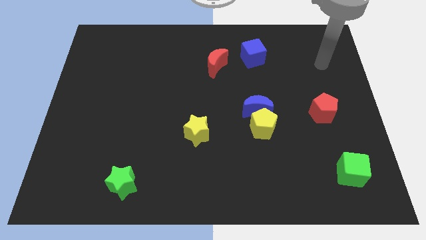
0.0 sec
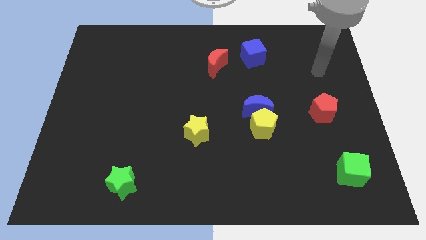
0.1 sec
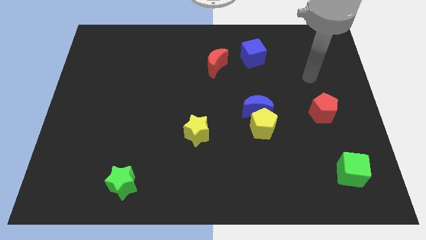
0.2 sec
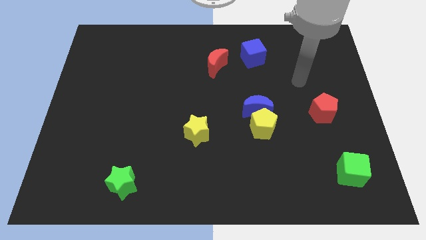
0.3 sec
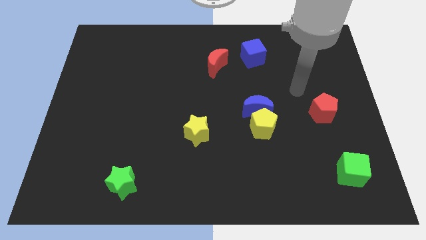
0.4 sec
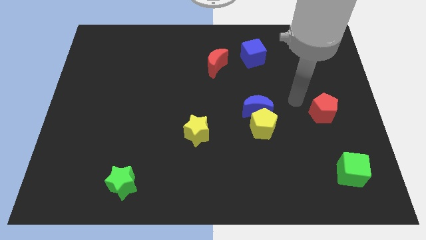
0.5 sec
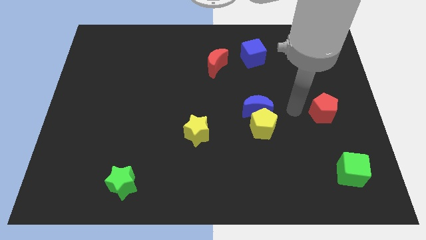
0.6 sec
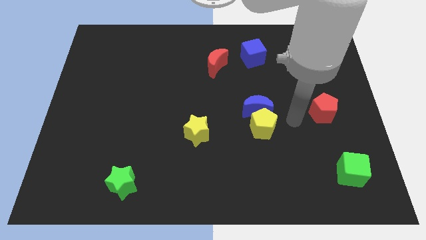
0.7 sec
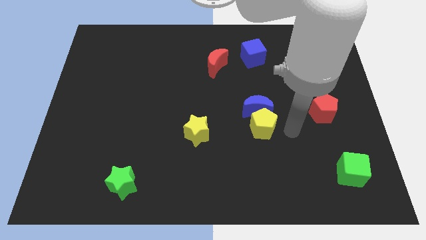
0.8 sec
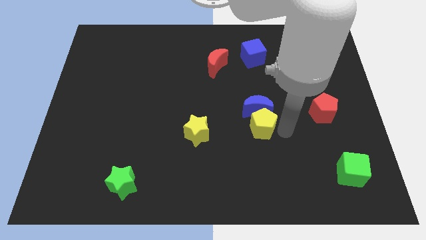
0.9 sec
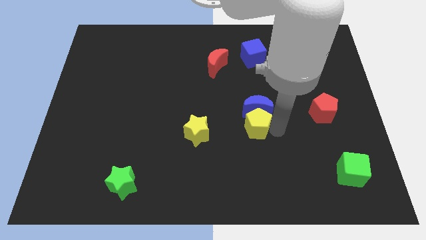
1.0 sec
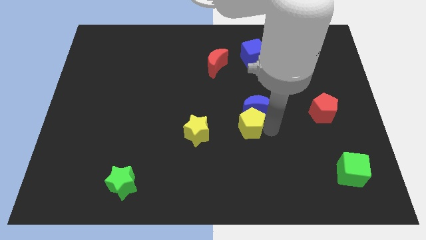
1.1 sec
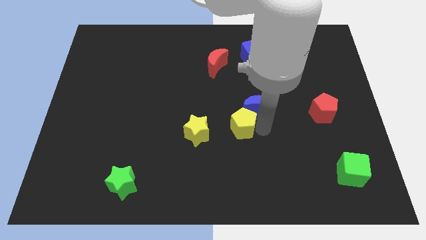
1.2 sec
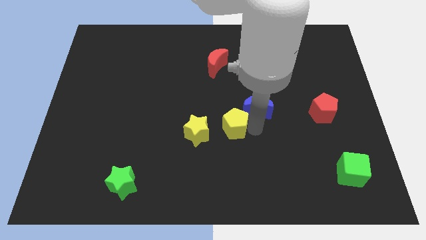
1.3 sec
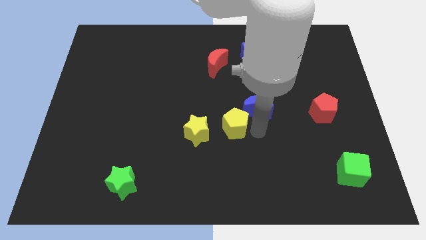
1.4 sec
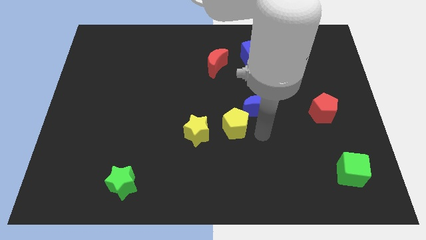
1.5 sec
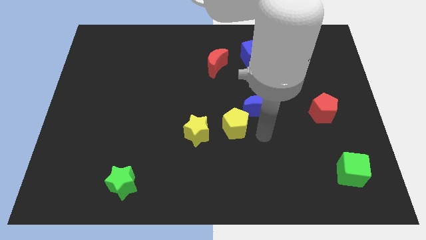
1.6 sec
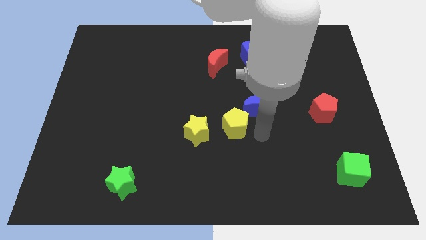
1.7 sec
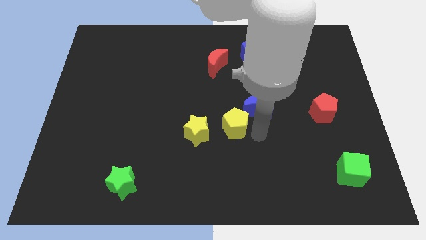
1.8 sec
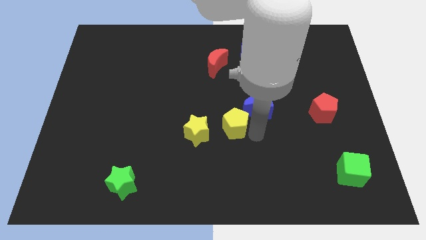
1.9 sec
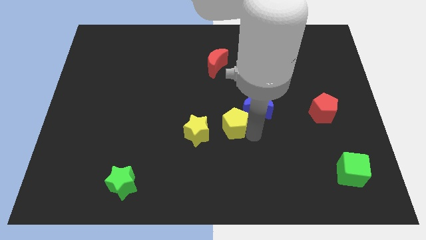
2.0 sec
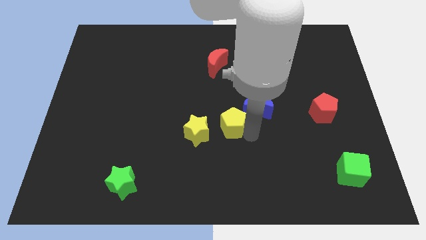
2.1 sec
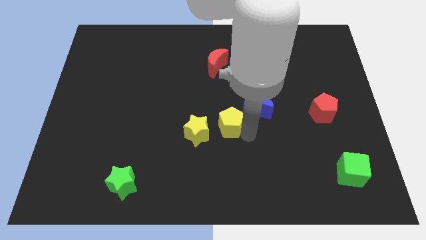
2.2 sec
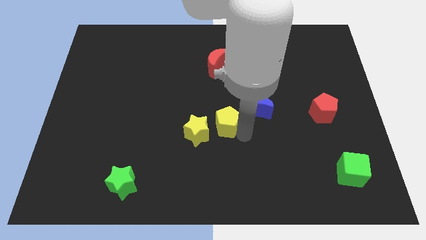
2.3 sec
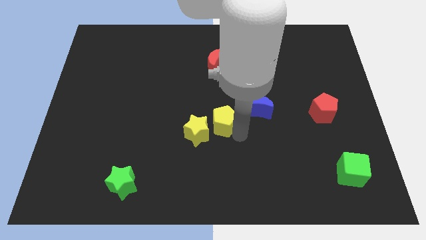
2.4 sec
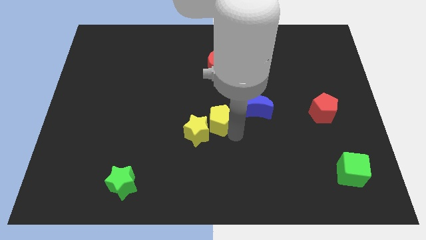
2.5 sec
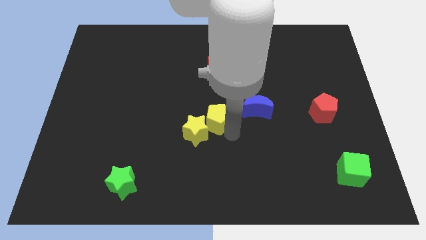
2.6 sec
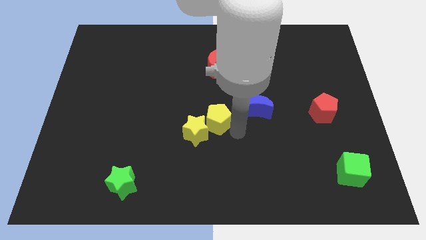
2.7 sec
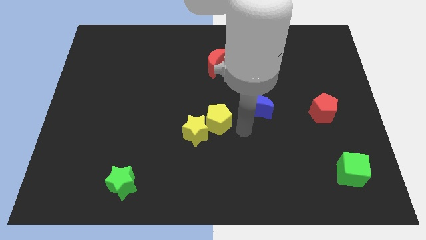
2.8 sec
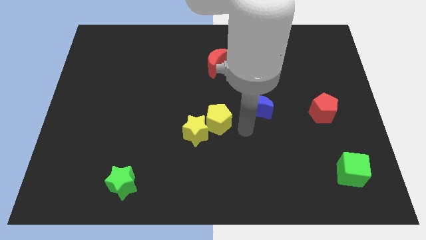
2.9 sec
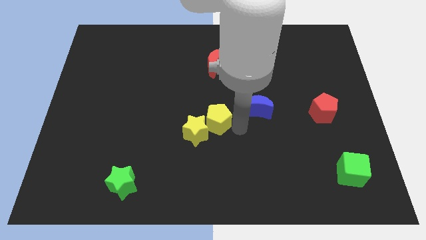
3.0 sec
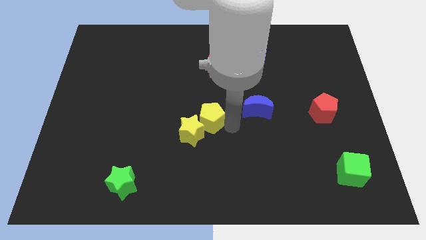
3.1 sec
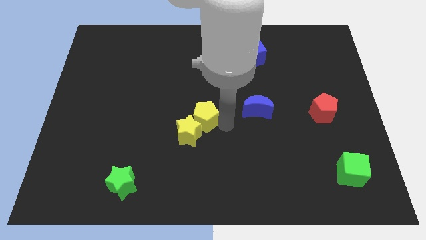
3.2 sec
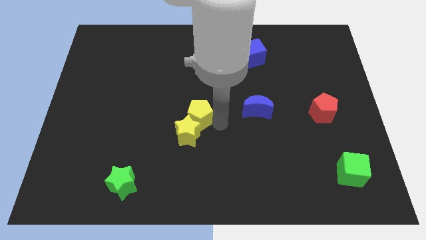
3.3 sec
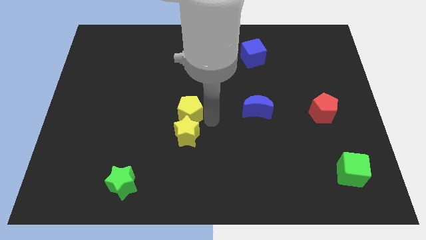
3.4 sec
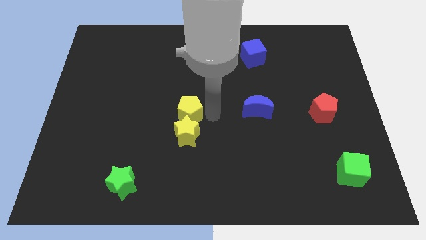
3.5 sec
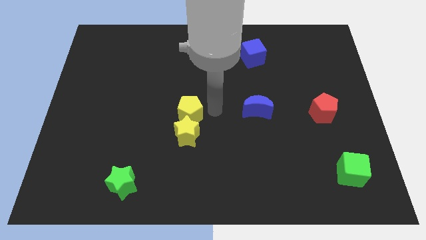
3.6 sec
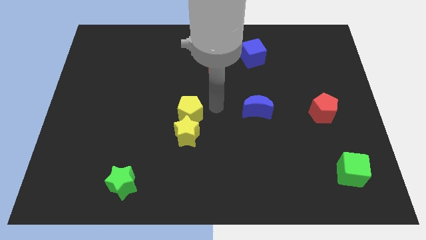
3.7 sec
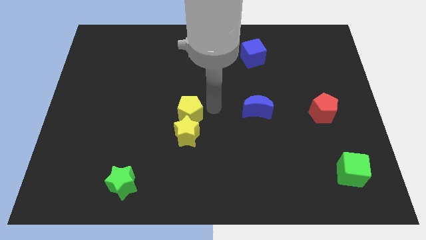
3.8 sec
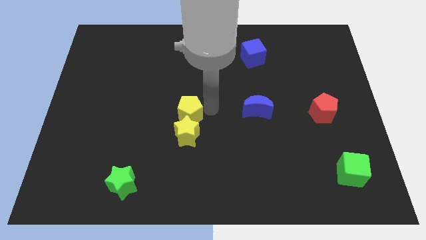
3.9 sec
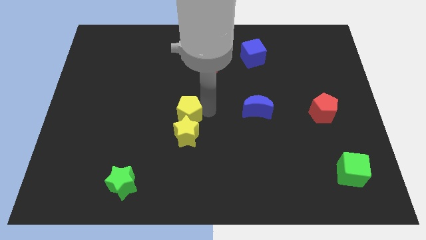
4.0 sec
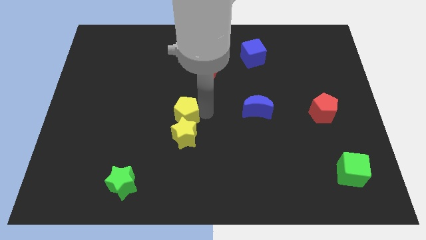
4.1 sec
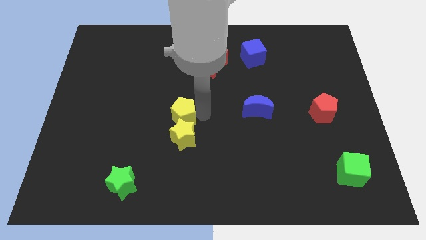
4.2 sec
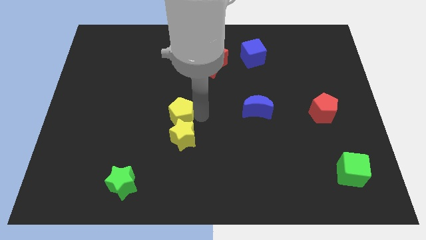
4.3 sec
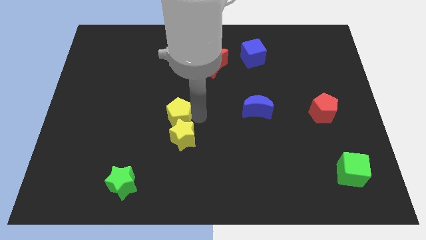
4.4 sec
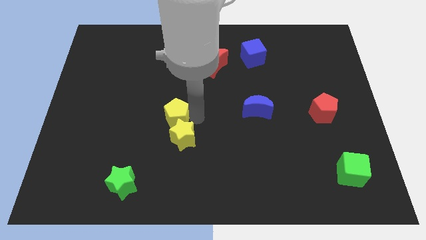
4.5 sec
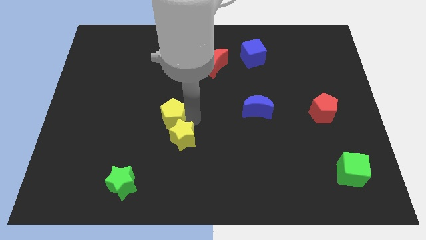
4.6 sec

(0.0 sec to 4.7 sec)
push the yellow pentagon left

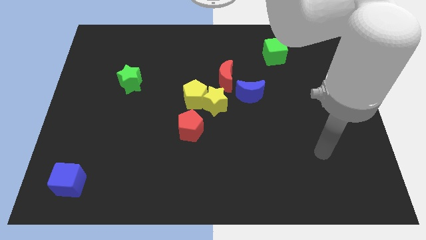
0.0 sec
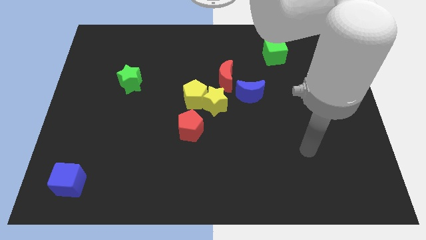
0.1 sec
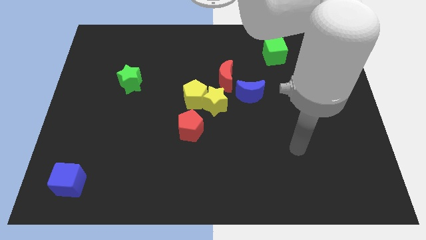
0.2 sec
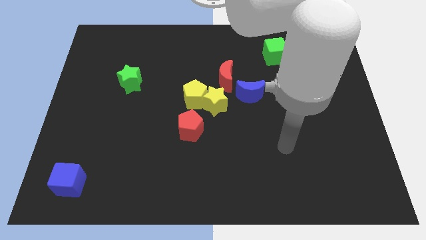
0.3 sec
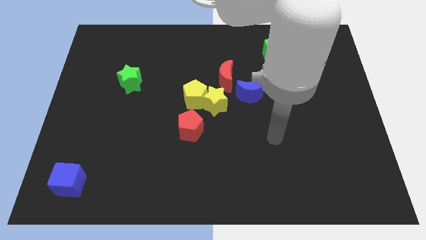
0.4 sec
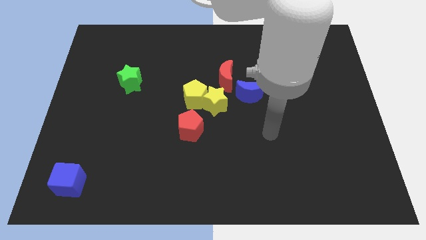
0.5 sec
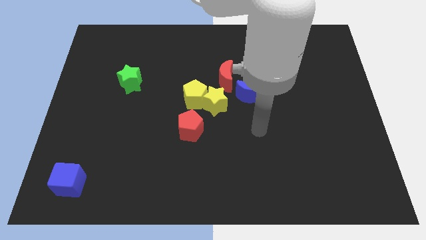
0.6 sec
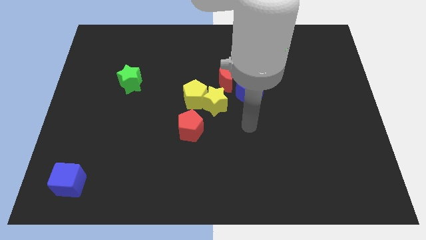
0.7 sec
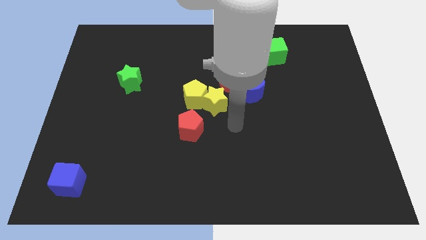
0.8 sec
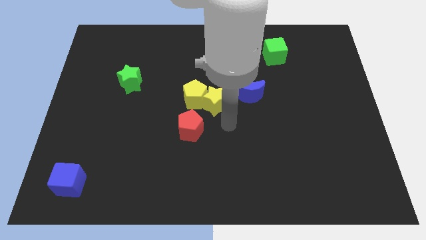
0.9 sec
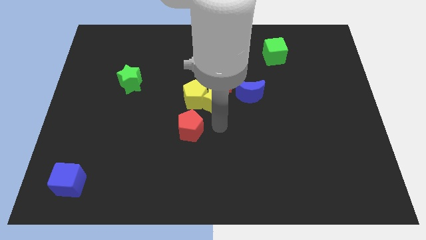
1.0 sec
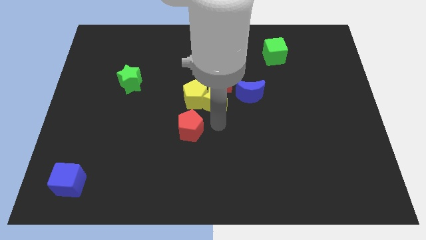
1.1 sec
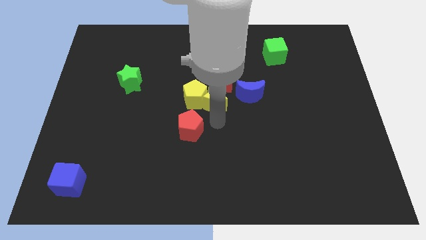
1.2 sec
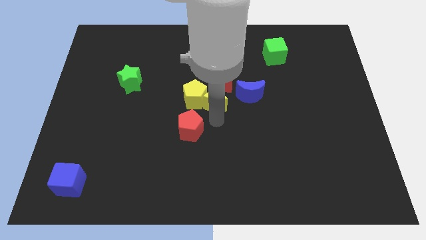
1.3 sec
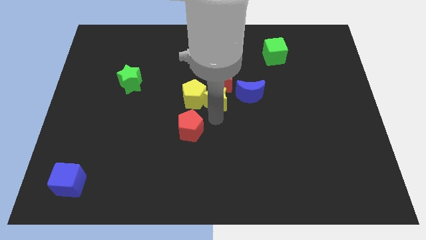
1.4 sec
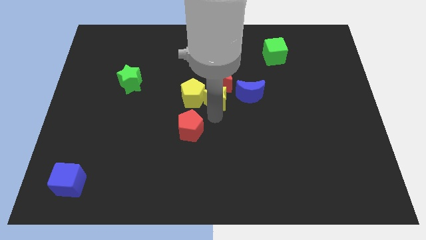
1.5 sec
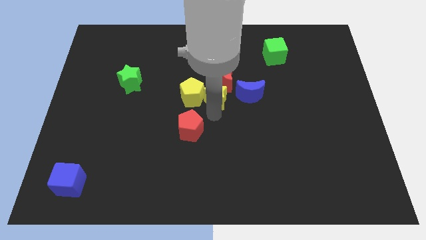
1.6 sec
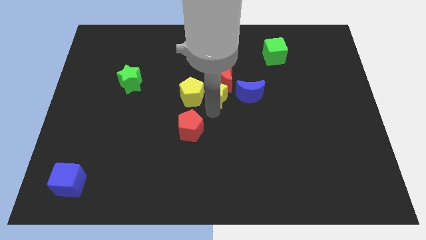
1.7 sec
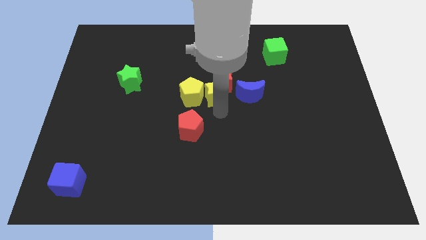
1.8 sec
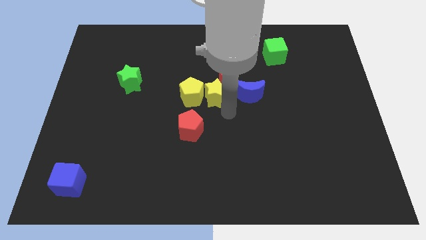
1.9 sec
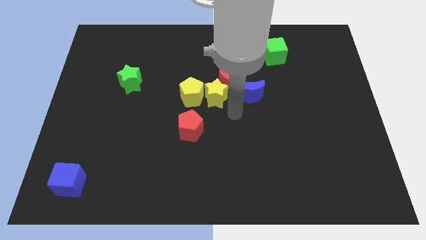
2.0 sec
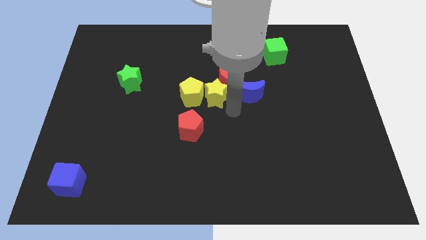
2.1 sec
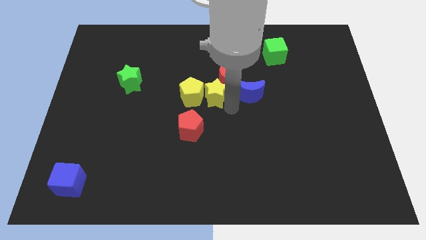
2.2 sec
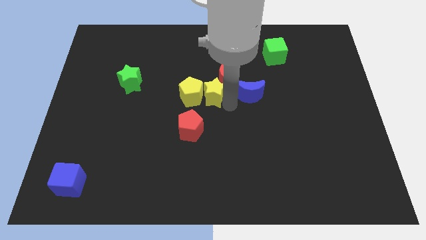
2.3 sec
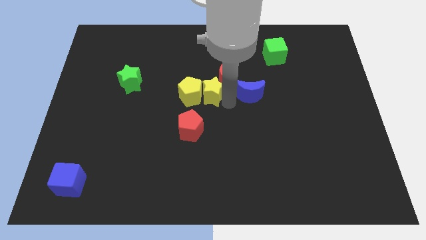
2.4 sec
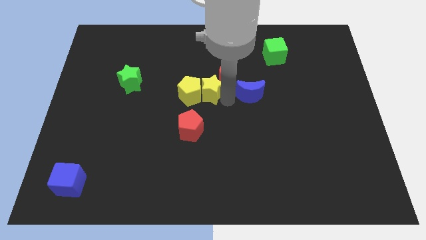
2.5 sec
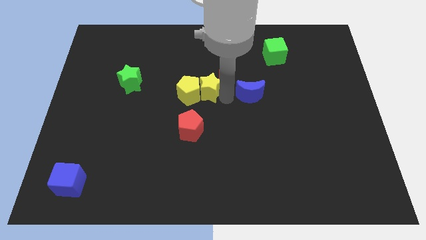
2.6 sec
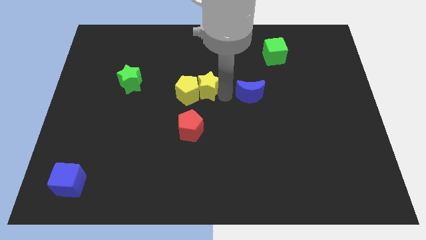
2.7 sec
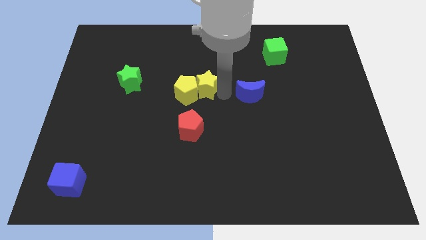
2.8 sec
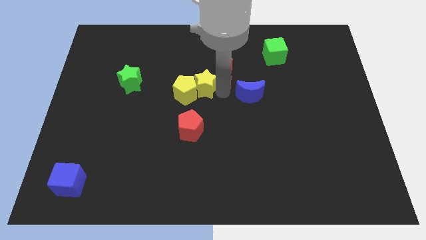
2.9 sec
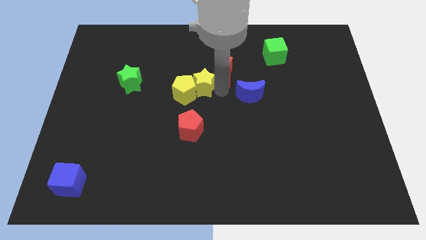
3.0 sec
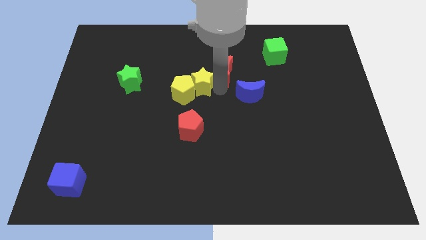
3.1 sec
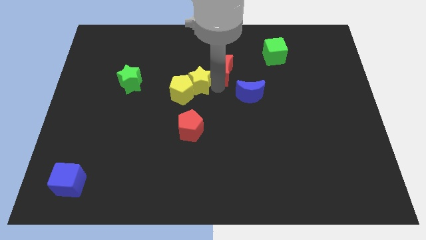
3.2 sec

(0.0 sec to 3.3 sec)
move the yellow star a bit up and left
